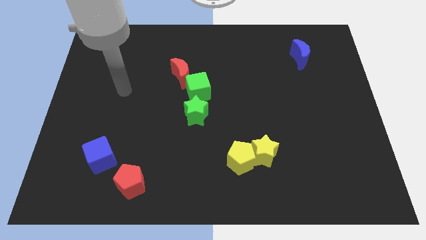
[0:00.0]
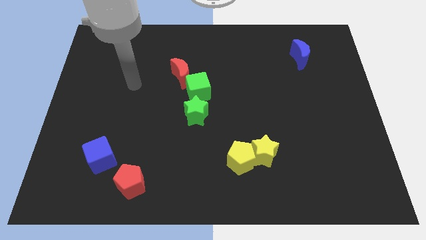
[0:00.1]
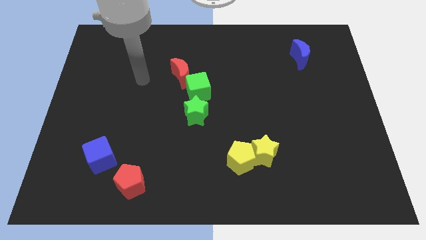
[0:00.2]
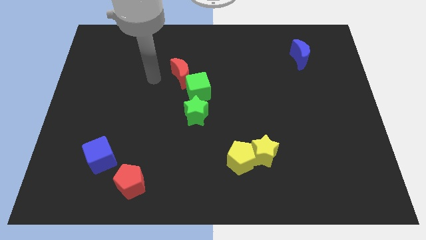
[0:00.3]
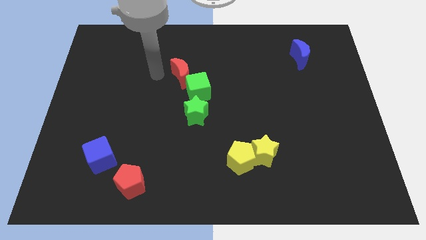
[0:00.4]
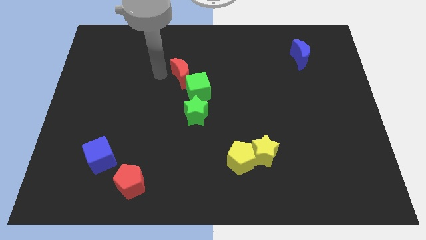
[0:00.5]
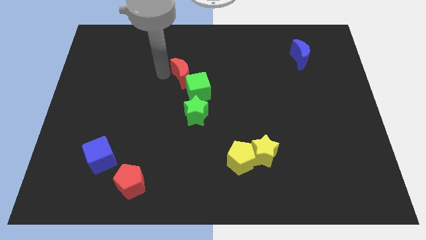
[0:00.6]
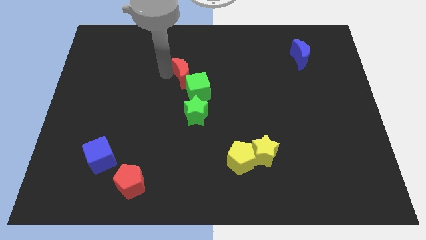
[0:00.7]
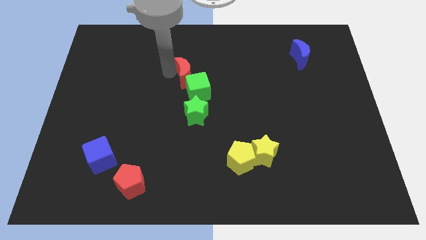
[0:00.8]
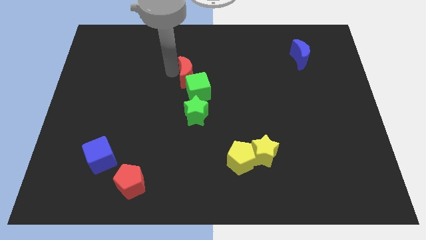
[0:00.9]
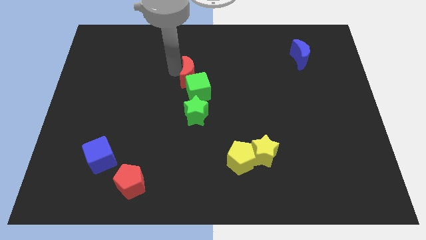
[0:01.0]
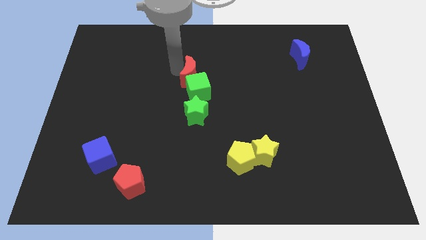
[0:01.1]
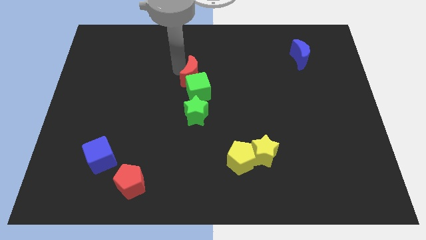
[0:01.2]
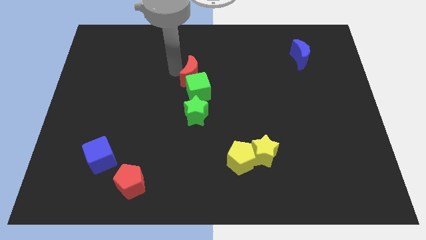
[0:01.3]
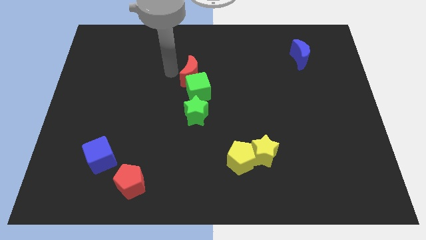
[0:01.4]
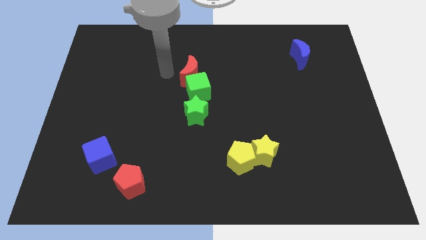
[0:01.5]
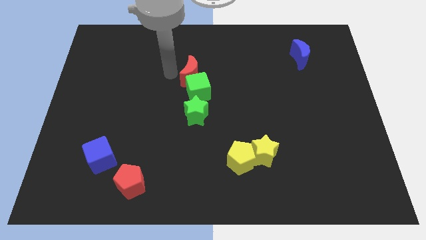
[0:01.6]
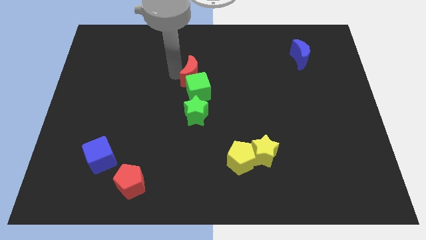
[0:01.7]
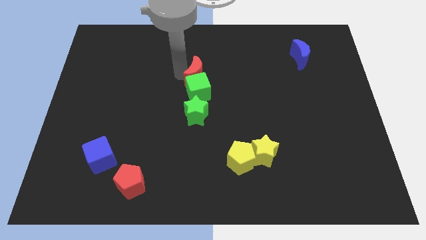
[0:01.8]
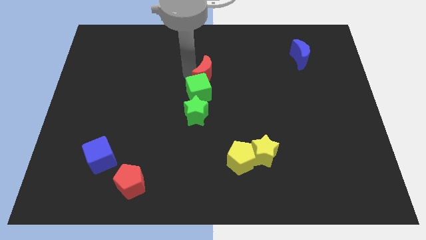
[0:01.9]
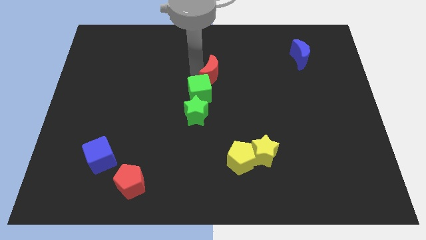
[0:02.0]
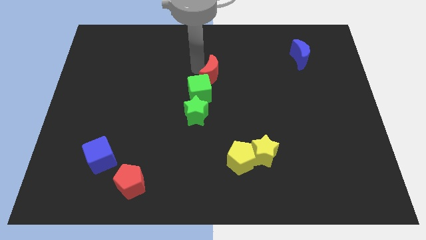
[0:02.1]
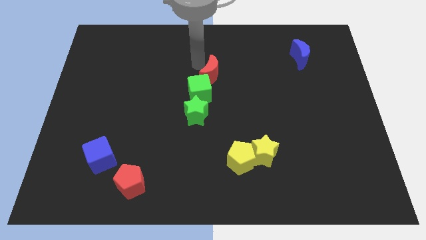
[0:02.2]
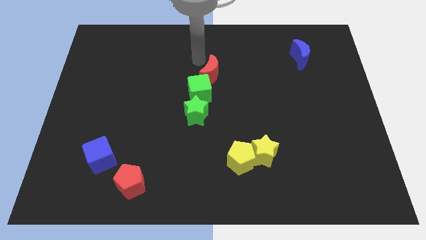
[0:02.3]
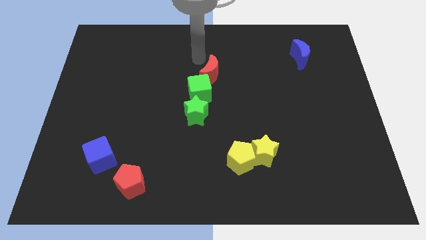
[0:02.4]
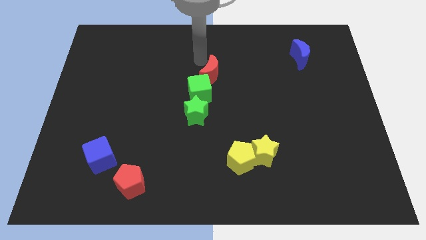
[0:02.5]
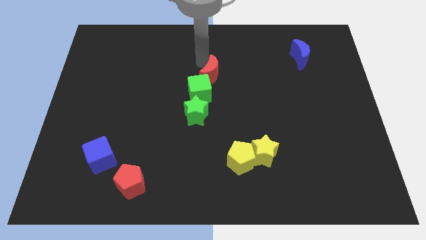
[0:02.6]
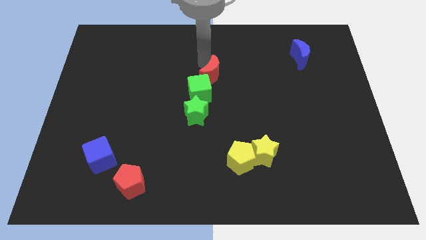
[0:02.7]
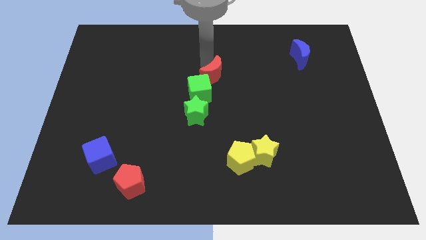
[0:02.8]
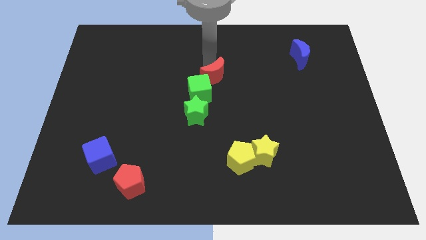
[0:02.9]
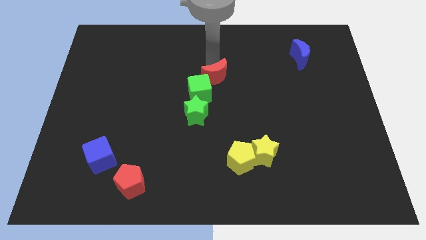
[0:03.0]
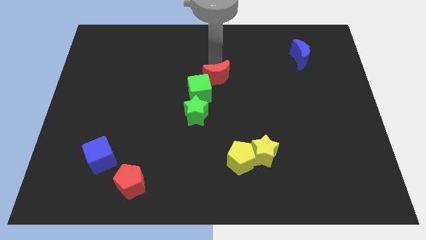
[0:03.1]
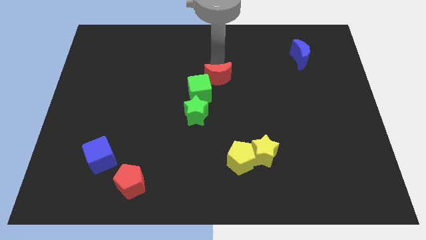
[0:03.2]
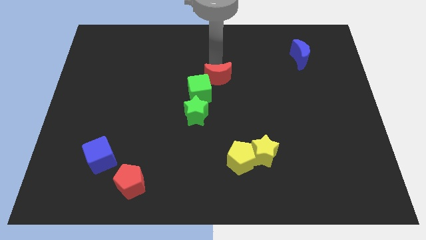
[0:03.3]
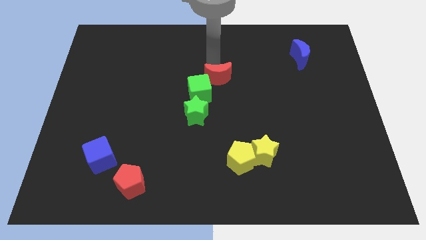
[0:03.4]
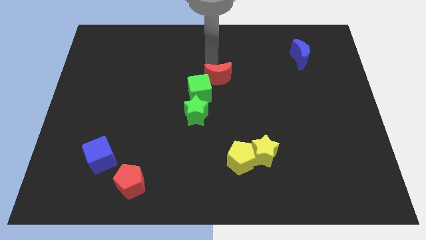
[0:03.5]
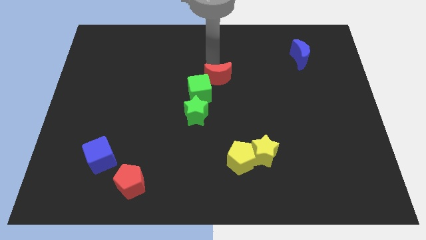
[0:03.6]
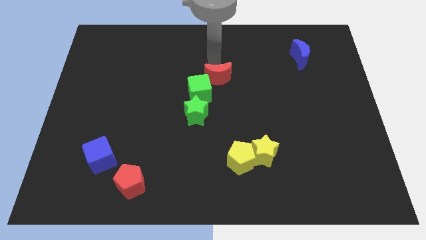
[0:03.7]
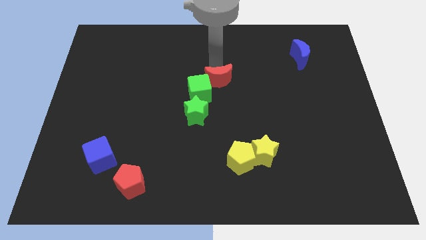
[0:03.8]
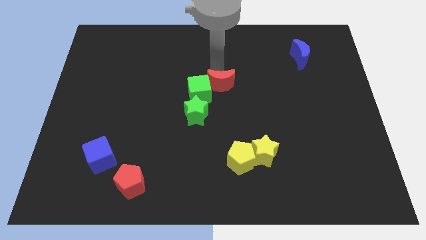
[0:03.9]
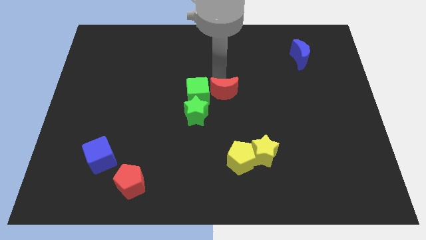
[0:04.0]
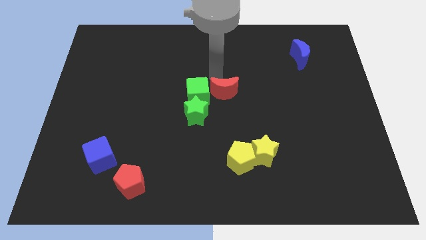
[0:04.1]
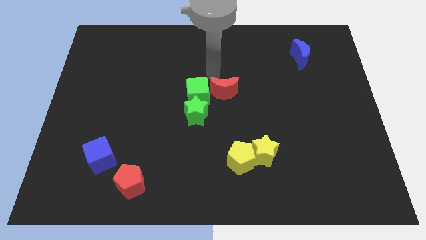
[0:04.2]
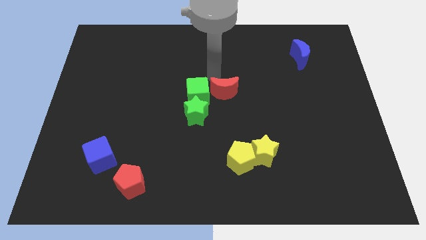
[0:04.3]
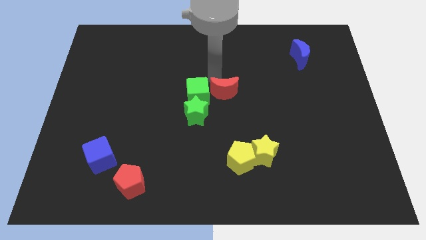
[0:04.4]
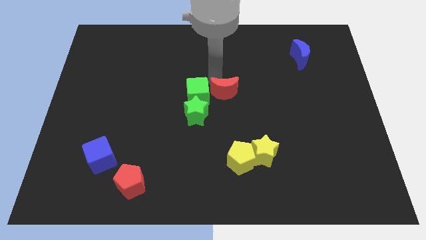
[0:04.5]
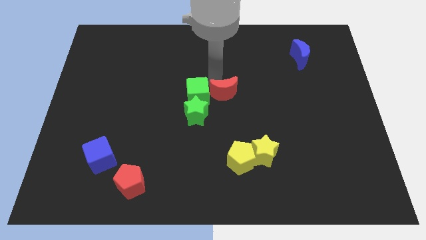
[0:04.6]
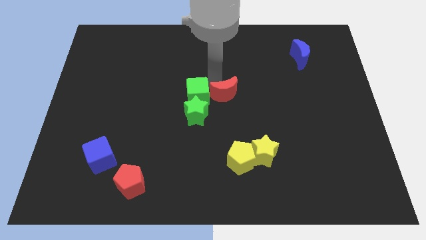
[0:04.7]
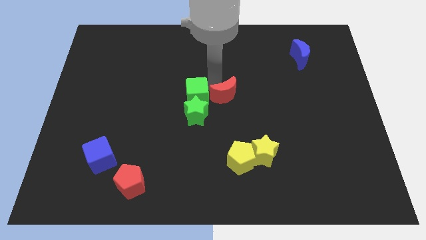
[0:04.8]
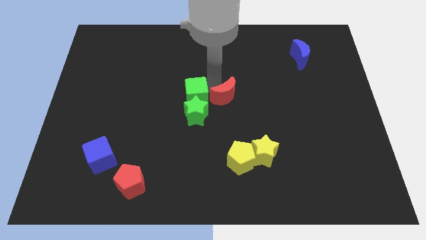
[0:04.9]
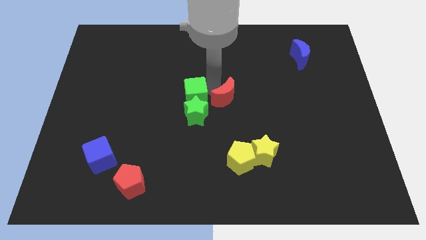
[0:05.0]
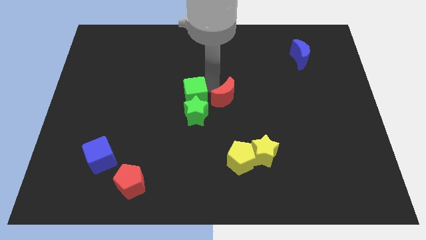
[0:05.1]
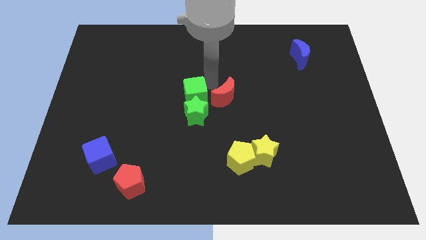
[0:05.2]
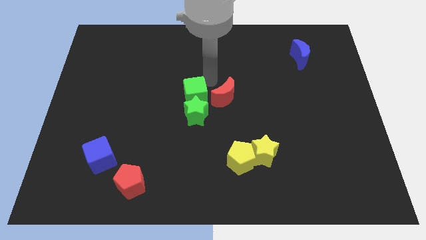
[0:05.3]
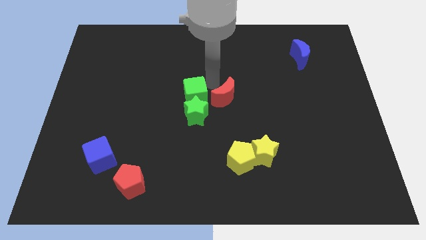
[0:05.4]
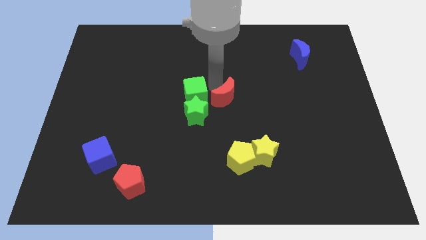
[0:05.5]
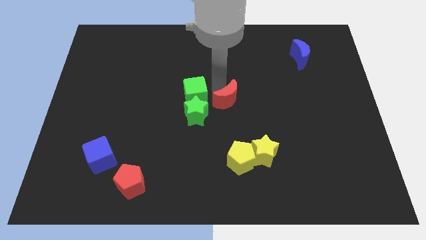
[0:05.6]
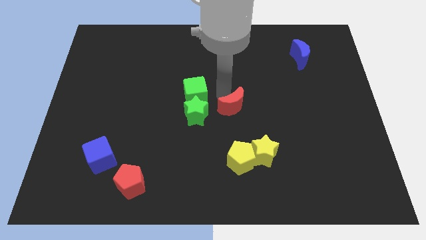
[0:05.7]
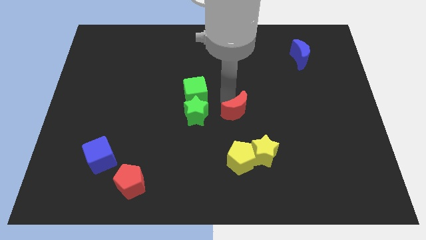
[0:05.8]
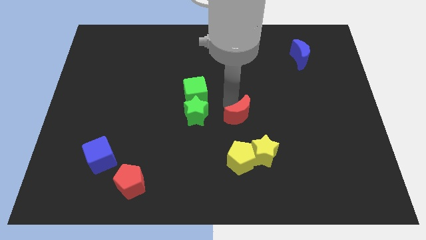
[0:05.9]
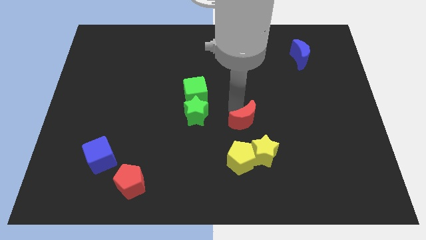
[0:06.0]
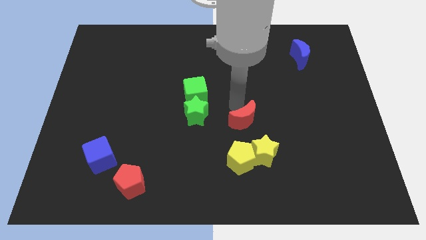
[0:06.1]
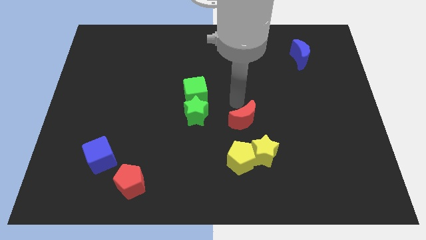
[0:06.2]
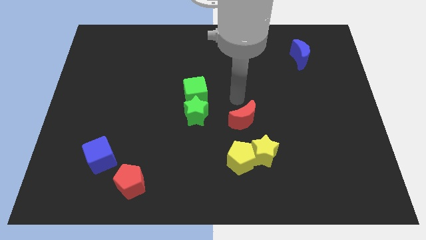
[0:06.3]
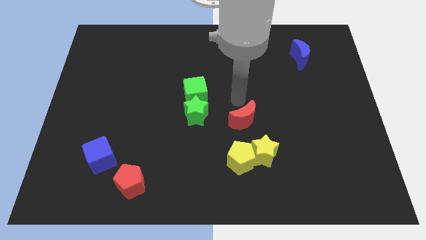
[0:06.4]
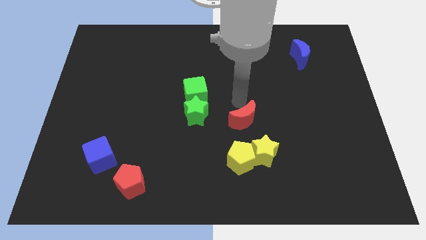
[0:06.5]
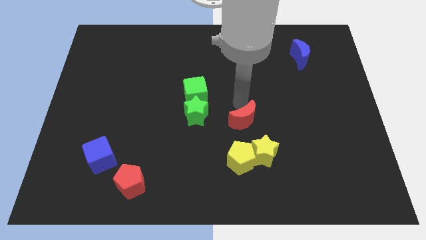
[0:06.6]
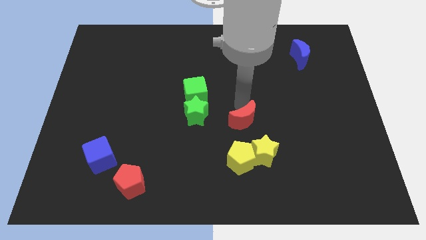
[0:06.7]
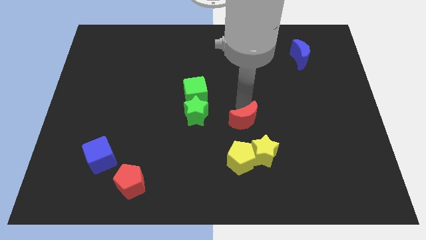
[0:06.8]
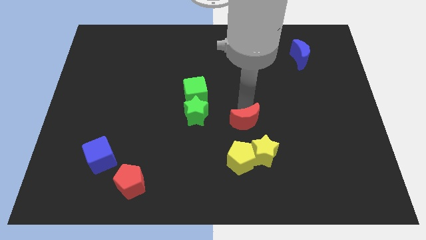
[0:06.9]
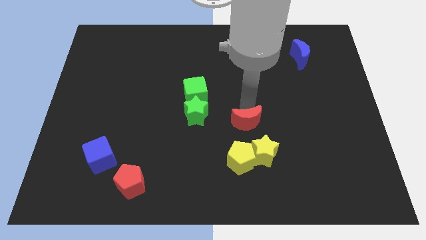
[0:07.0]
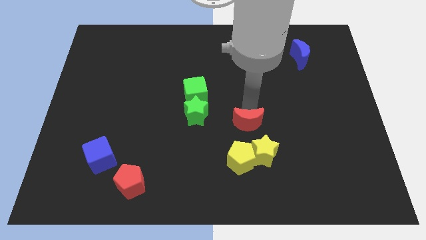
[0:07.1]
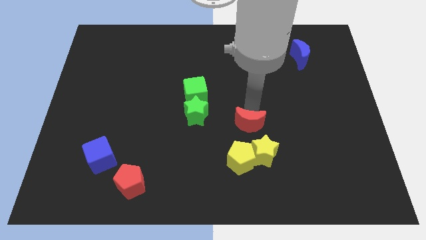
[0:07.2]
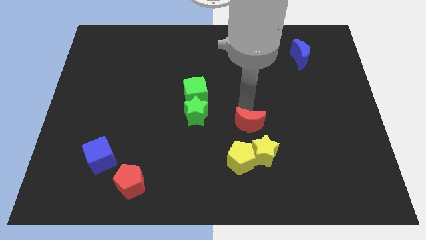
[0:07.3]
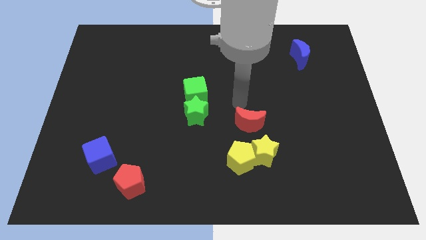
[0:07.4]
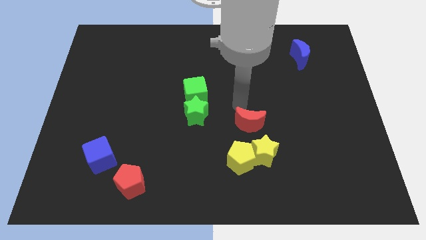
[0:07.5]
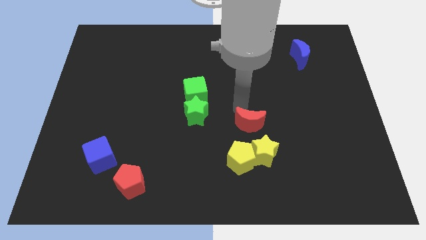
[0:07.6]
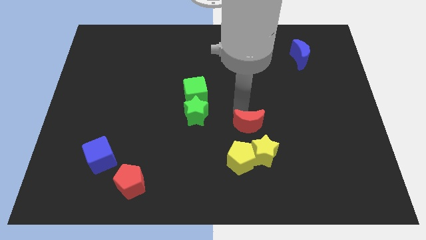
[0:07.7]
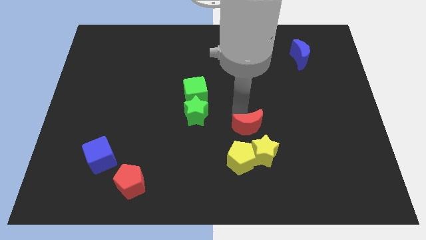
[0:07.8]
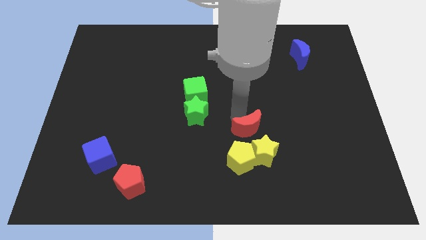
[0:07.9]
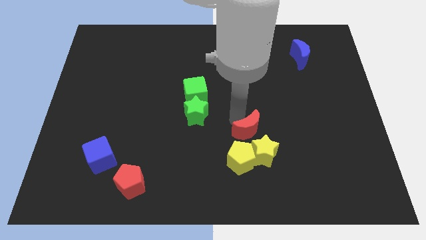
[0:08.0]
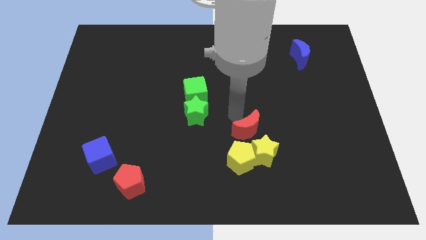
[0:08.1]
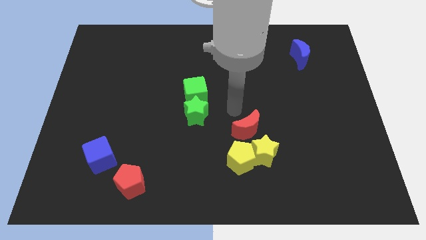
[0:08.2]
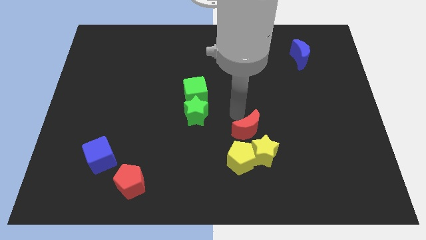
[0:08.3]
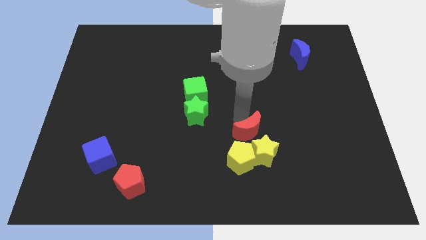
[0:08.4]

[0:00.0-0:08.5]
move the red moon next to the yellow star
